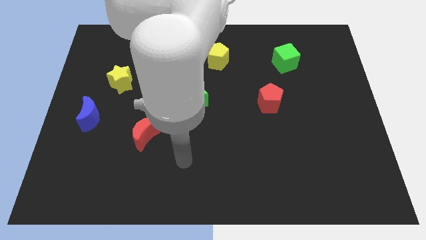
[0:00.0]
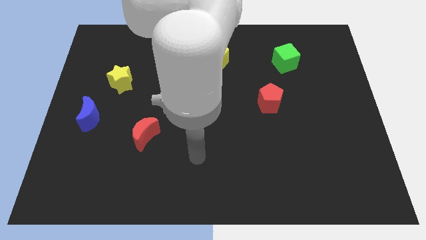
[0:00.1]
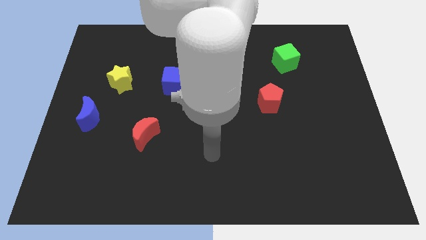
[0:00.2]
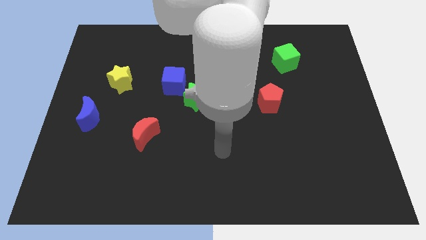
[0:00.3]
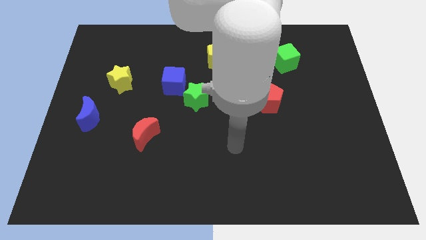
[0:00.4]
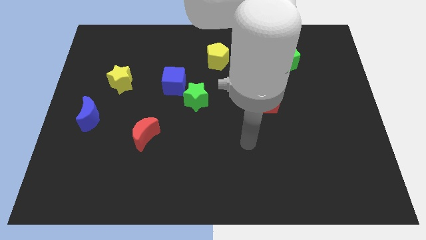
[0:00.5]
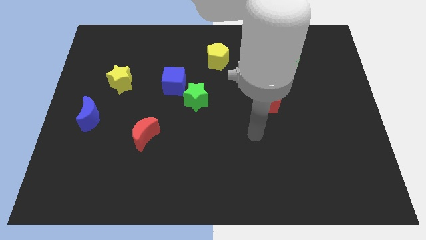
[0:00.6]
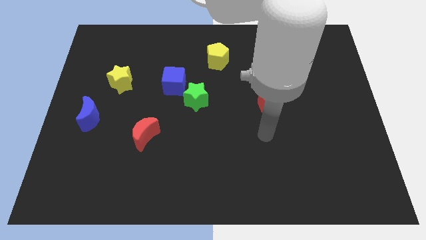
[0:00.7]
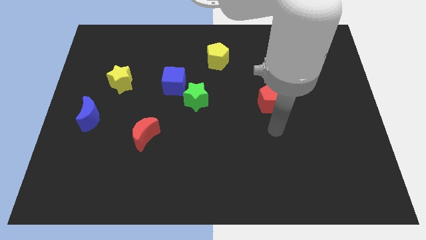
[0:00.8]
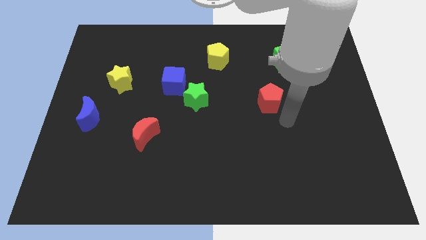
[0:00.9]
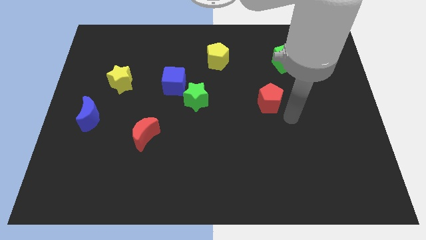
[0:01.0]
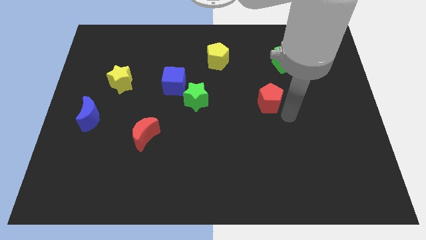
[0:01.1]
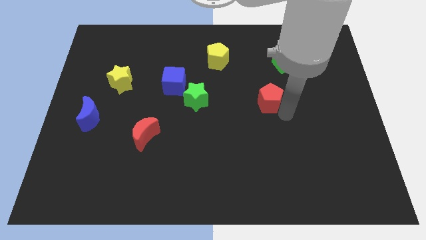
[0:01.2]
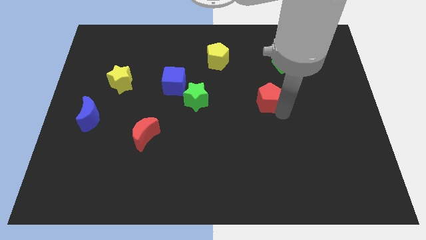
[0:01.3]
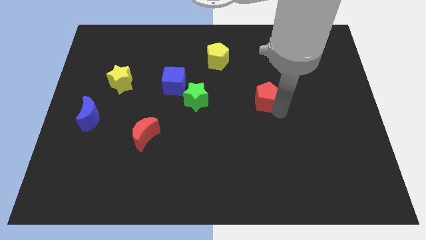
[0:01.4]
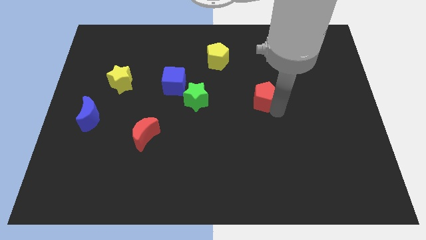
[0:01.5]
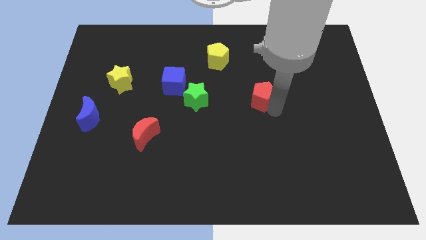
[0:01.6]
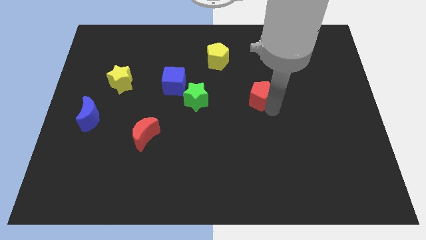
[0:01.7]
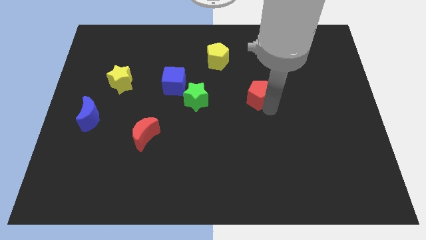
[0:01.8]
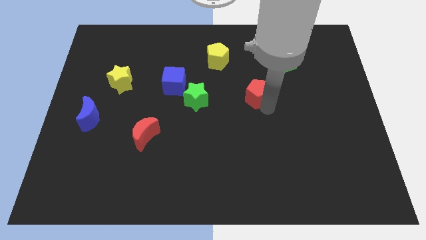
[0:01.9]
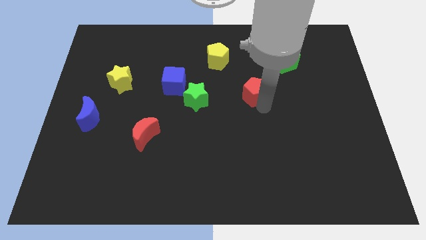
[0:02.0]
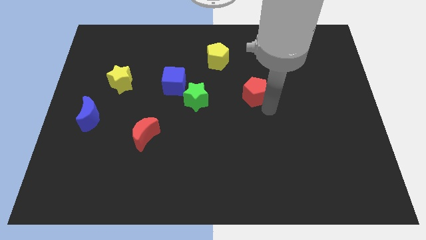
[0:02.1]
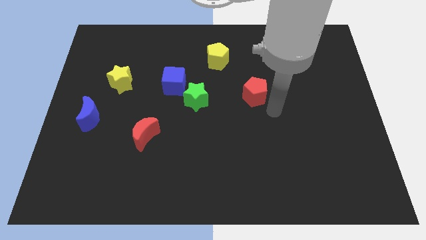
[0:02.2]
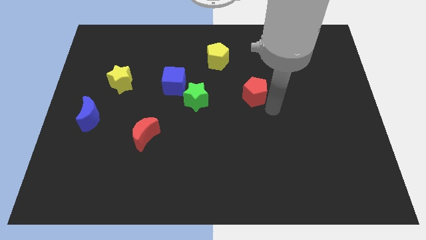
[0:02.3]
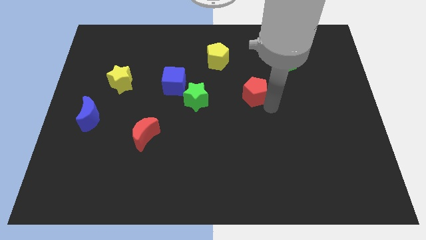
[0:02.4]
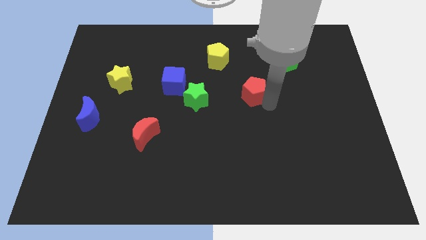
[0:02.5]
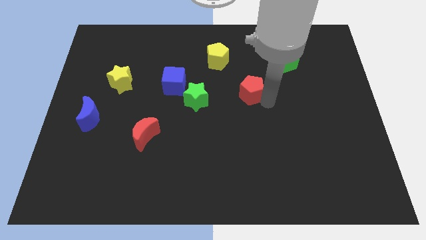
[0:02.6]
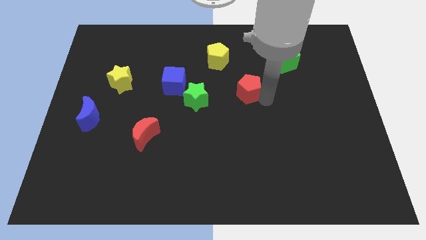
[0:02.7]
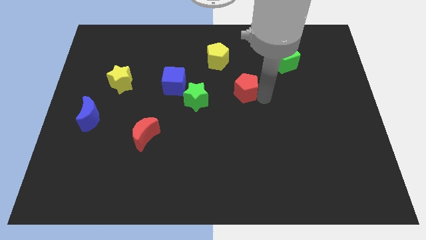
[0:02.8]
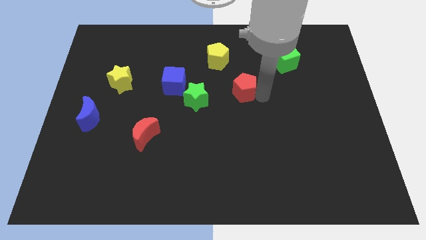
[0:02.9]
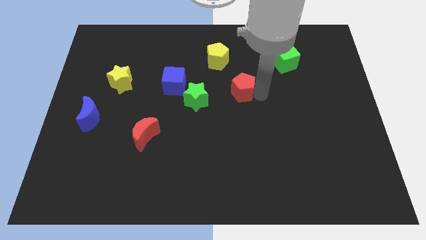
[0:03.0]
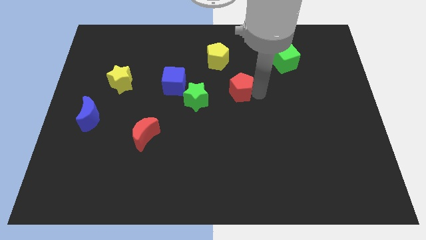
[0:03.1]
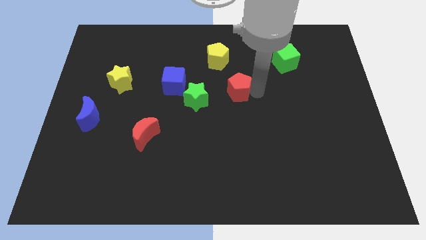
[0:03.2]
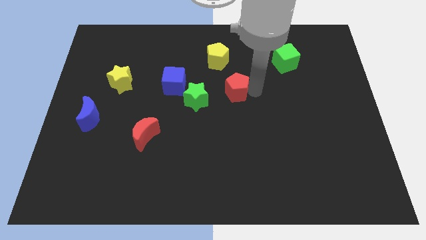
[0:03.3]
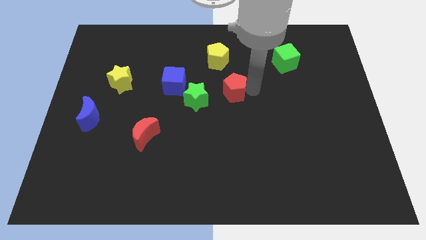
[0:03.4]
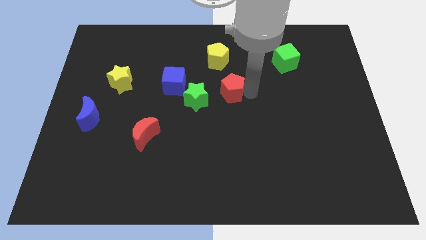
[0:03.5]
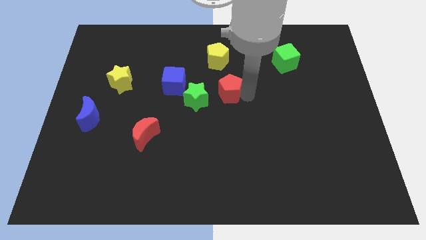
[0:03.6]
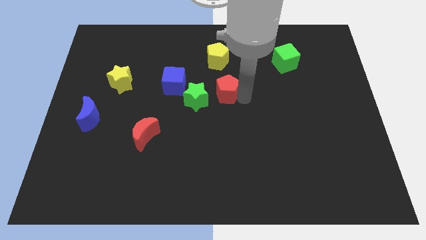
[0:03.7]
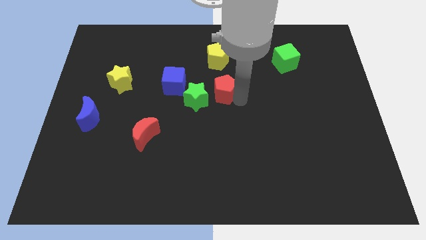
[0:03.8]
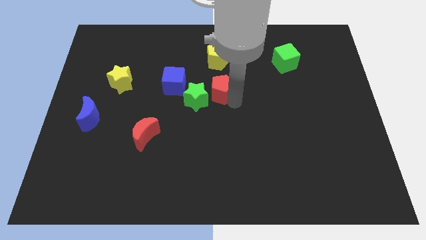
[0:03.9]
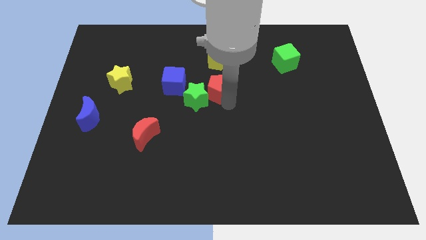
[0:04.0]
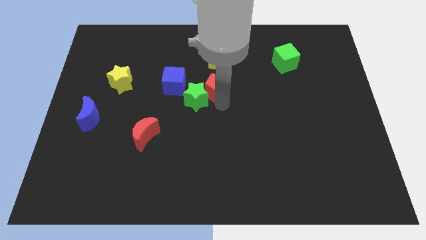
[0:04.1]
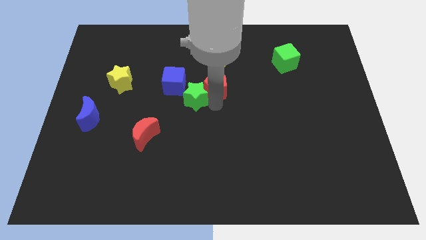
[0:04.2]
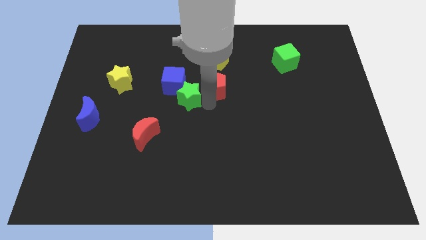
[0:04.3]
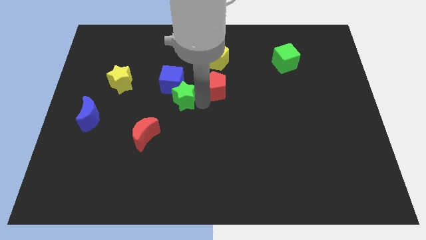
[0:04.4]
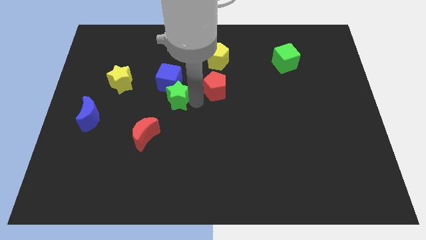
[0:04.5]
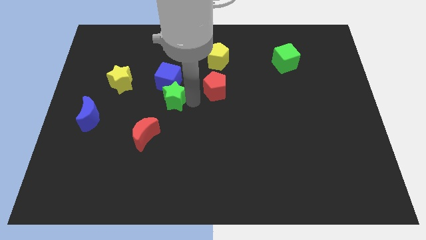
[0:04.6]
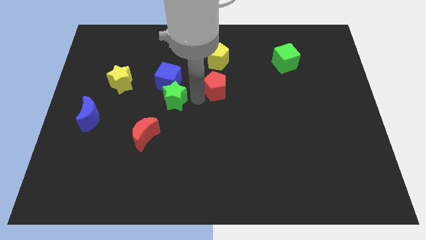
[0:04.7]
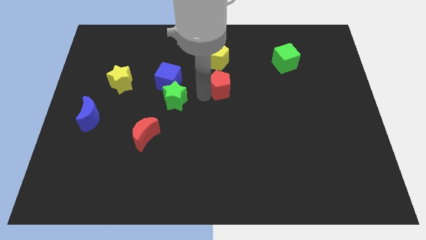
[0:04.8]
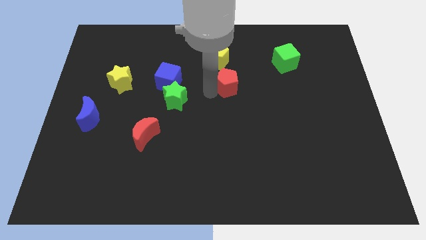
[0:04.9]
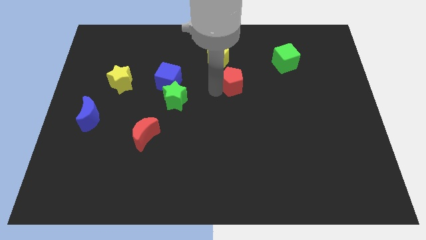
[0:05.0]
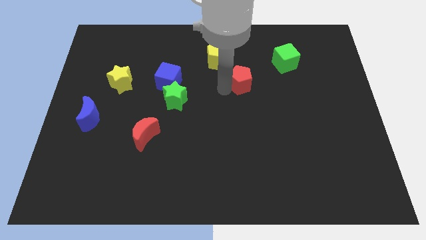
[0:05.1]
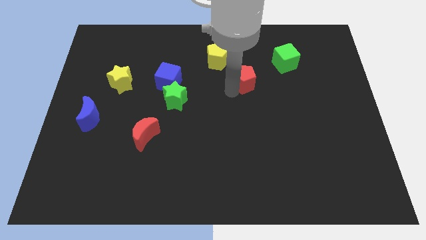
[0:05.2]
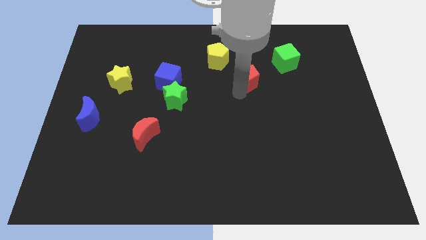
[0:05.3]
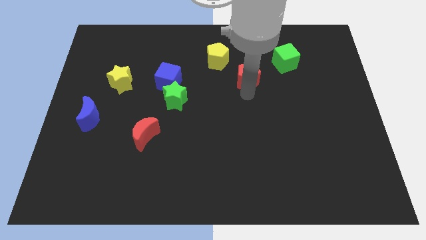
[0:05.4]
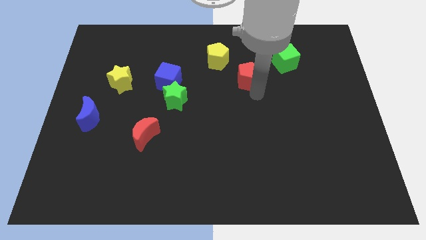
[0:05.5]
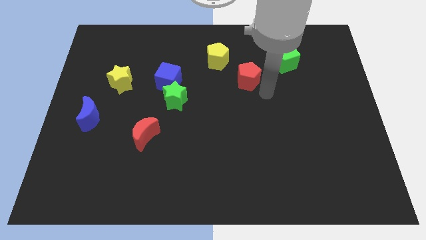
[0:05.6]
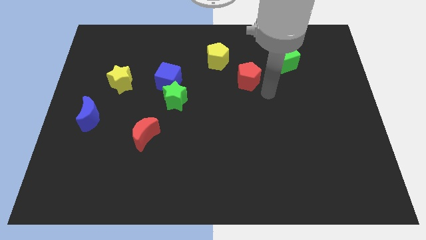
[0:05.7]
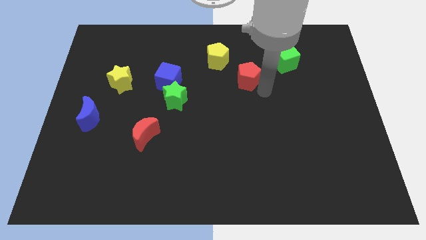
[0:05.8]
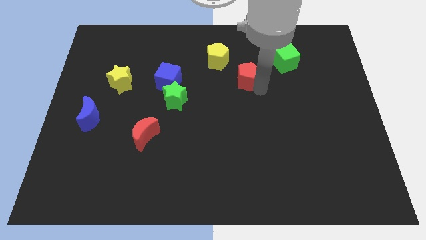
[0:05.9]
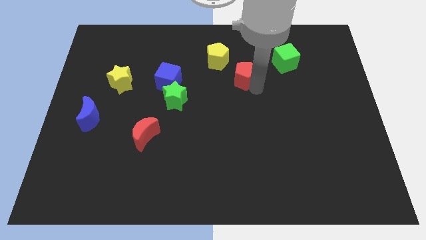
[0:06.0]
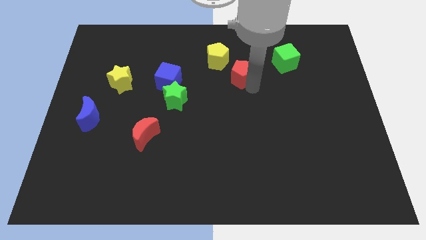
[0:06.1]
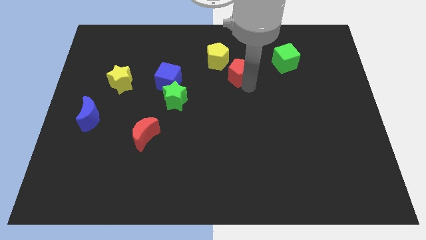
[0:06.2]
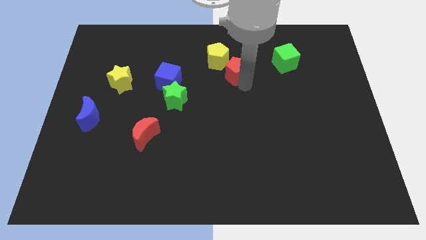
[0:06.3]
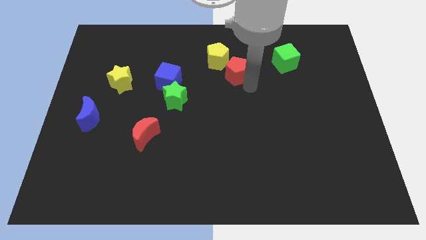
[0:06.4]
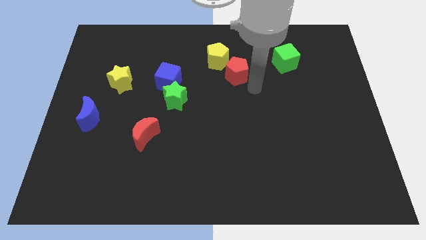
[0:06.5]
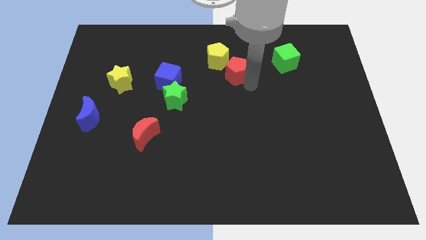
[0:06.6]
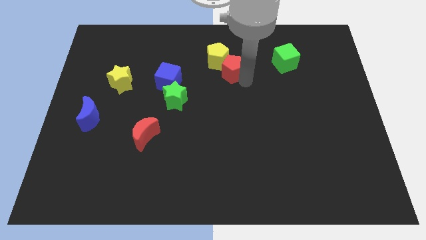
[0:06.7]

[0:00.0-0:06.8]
move the red pentagon close to the yellow pentagon
